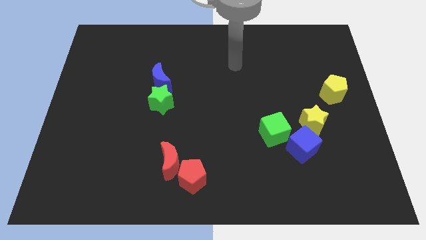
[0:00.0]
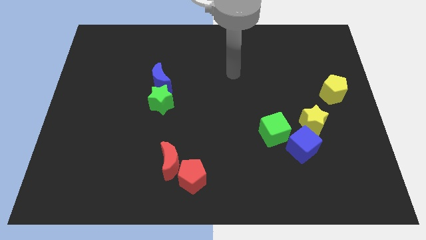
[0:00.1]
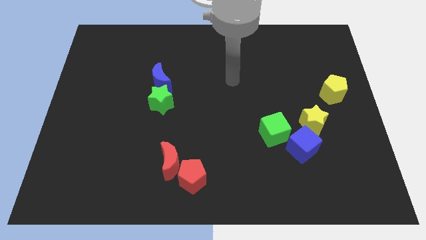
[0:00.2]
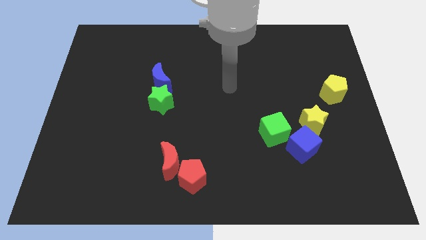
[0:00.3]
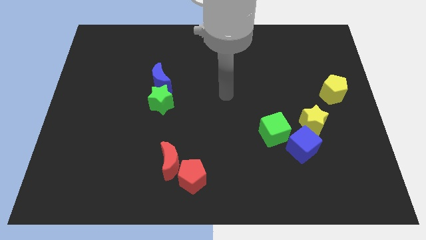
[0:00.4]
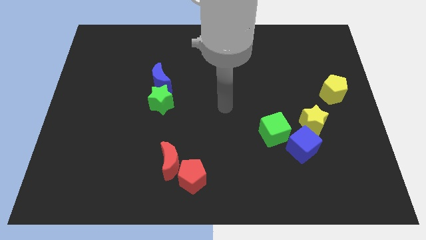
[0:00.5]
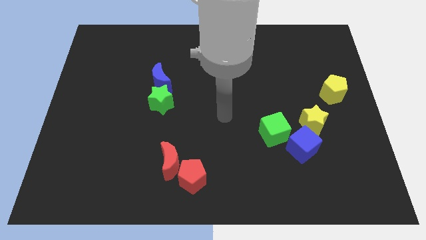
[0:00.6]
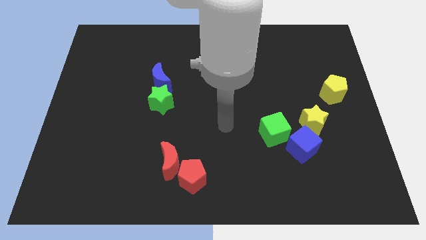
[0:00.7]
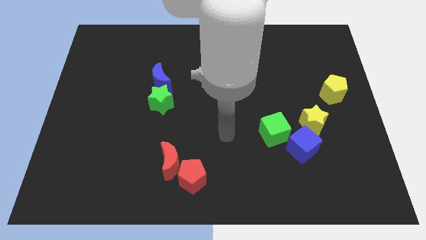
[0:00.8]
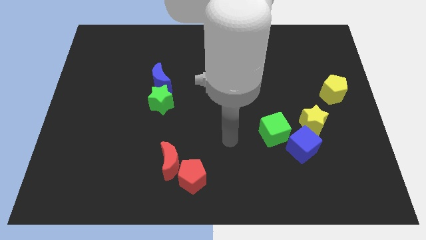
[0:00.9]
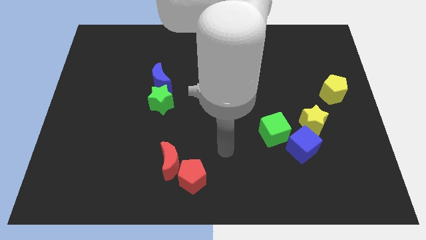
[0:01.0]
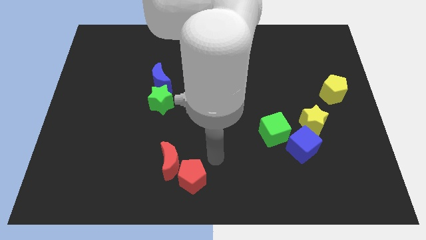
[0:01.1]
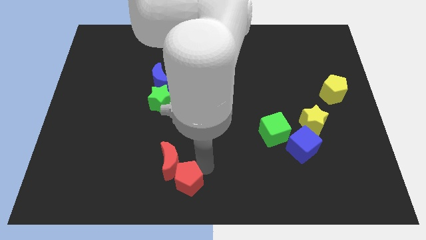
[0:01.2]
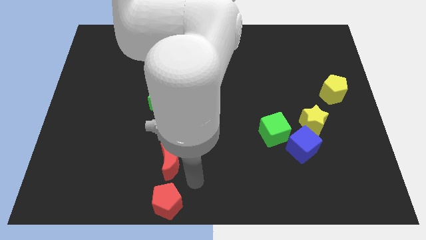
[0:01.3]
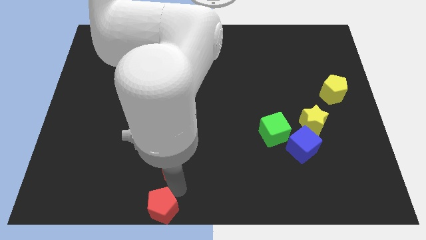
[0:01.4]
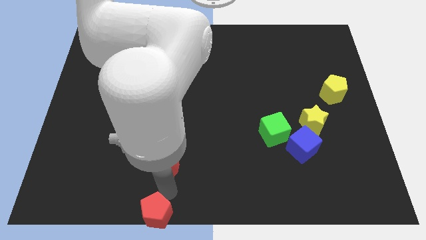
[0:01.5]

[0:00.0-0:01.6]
pull the red moon apart from the red pentagon

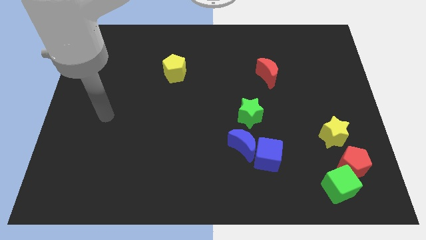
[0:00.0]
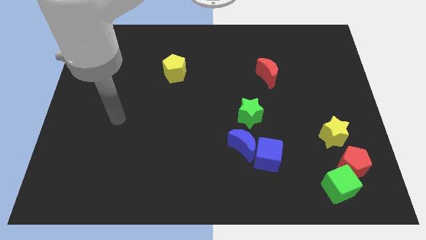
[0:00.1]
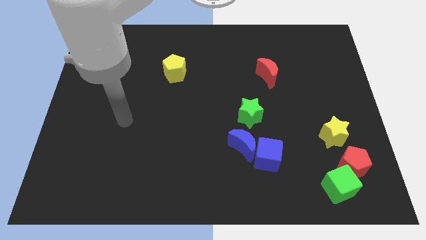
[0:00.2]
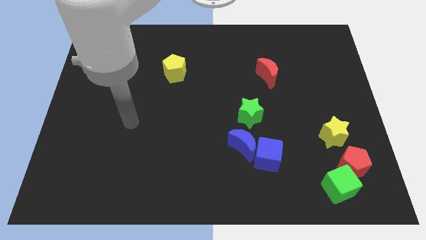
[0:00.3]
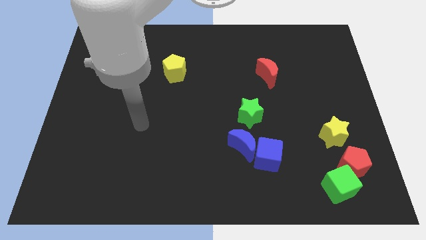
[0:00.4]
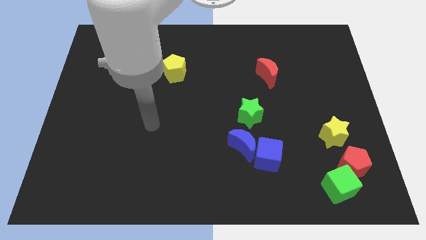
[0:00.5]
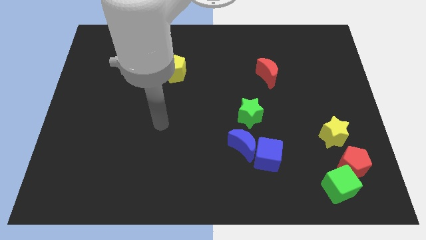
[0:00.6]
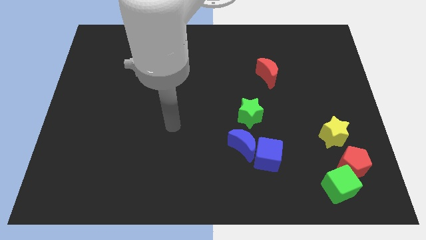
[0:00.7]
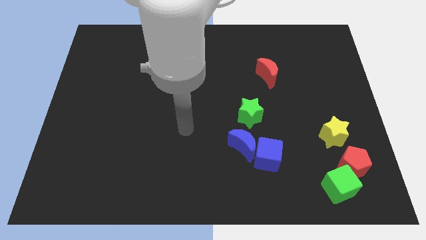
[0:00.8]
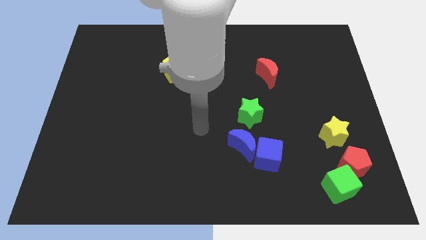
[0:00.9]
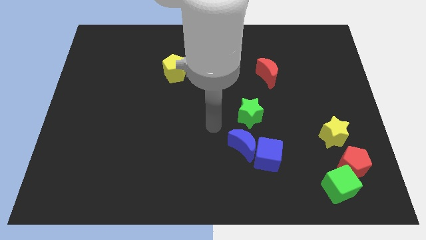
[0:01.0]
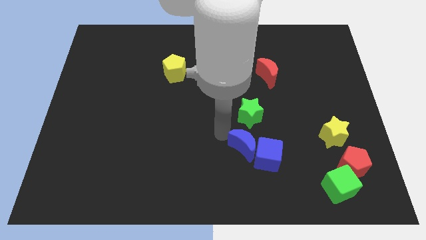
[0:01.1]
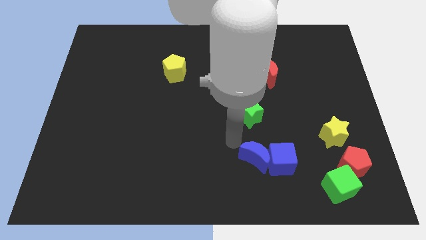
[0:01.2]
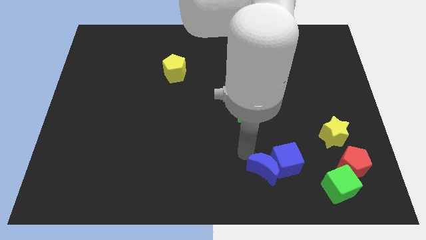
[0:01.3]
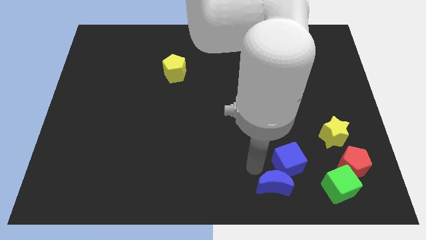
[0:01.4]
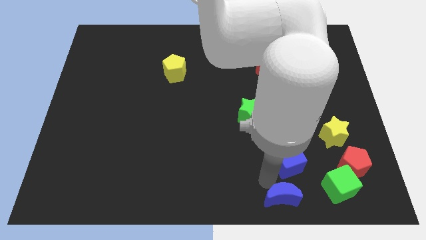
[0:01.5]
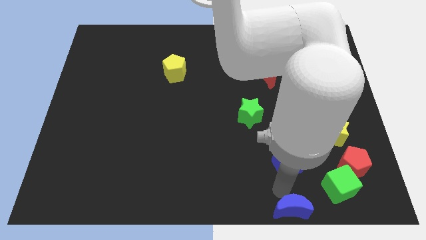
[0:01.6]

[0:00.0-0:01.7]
pull the blue cube apart from the blue moon

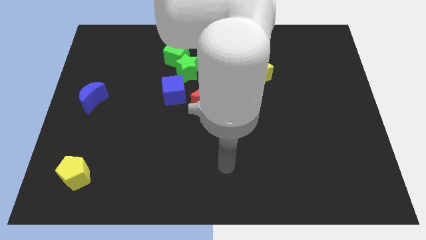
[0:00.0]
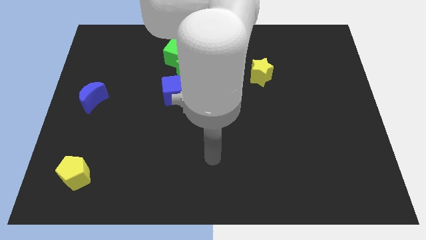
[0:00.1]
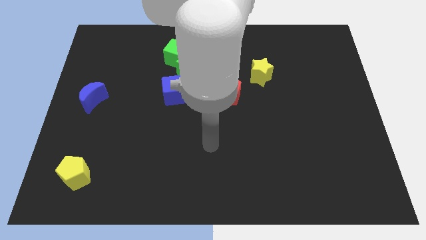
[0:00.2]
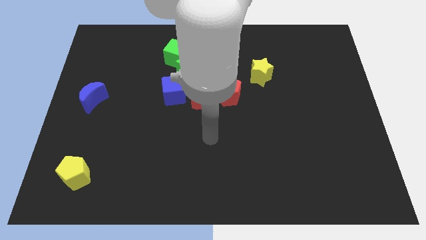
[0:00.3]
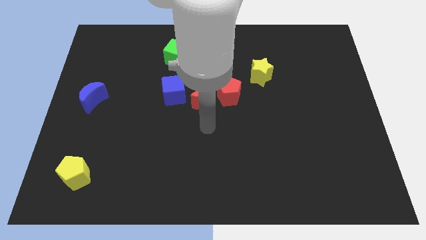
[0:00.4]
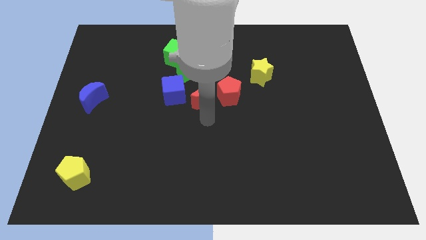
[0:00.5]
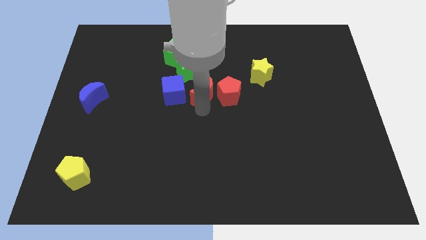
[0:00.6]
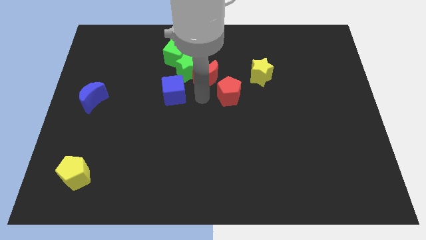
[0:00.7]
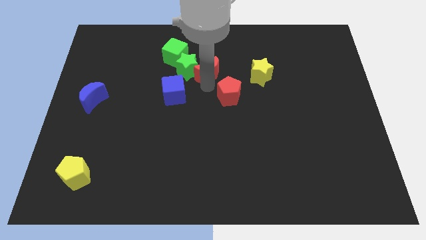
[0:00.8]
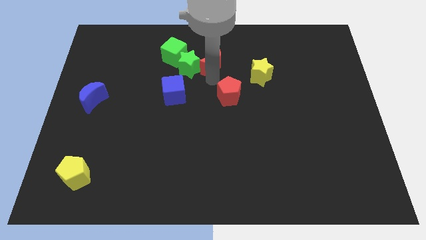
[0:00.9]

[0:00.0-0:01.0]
pull the red pentagon apart from the red moon

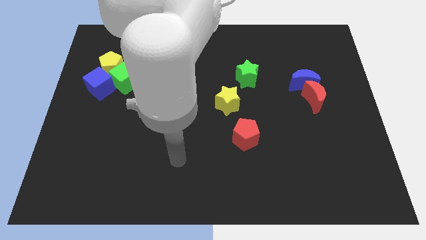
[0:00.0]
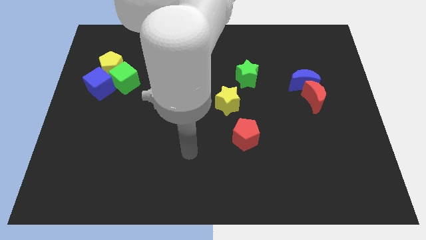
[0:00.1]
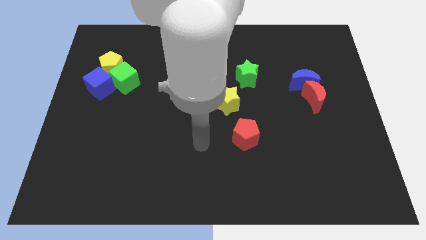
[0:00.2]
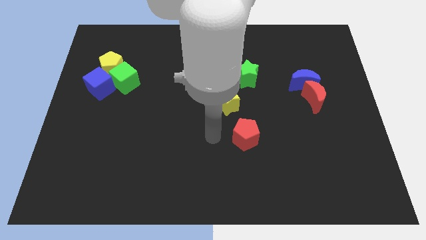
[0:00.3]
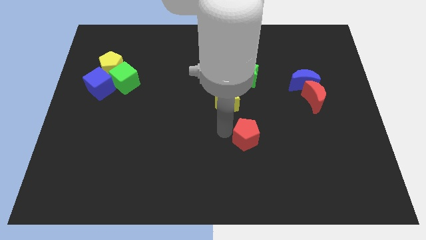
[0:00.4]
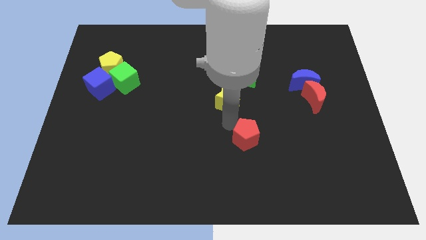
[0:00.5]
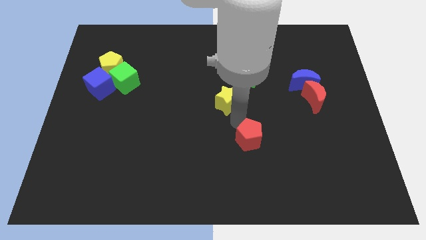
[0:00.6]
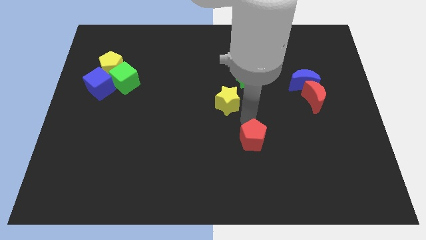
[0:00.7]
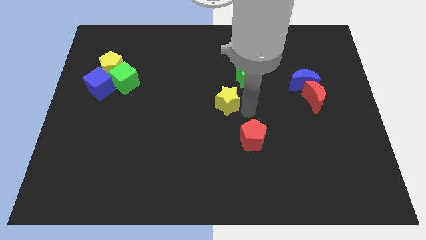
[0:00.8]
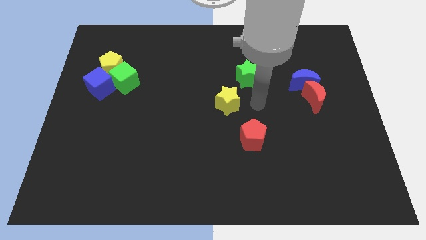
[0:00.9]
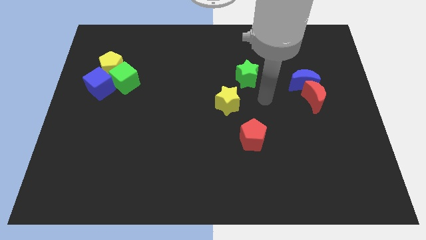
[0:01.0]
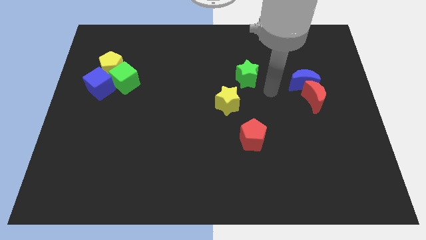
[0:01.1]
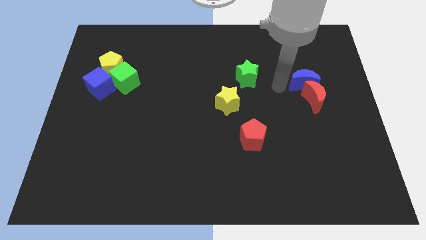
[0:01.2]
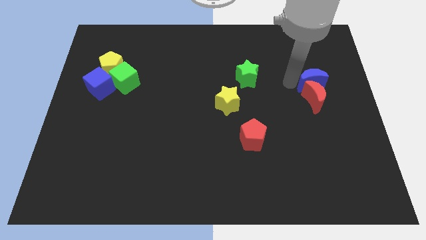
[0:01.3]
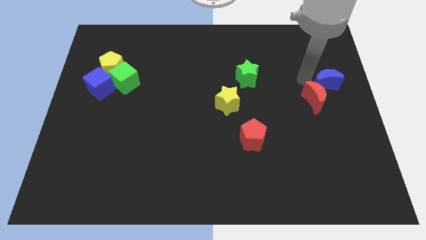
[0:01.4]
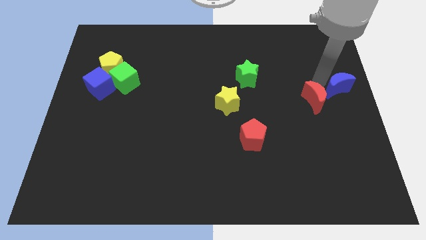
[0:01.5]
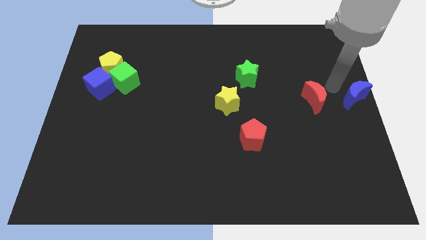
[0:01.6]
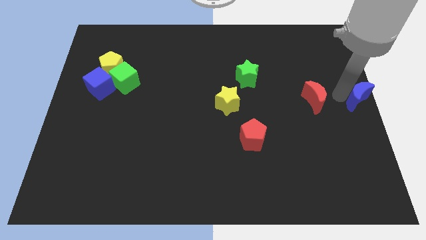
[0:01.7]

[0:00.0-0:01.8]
move the red moon away from the blue moon

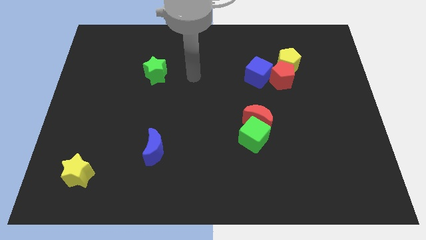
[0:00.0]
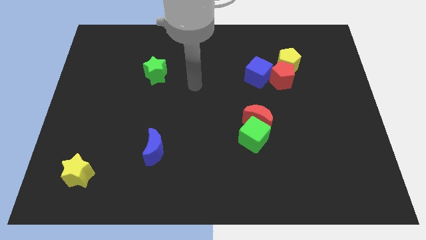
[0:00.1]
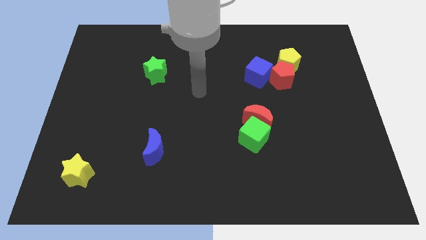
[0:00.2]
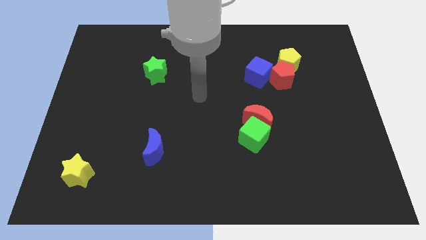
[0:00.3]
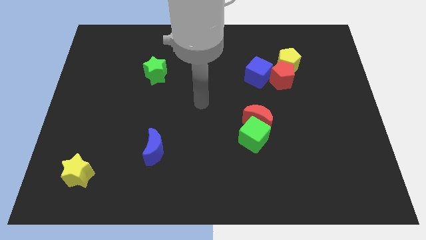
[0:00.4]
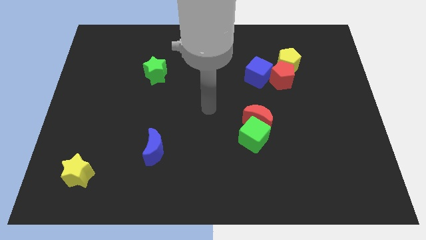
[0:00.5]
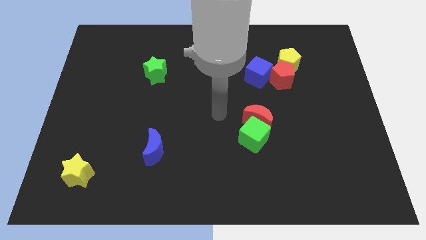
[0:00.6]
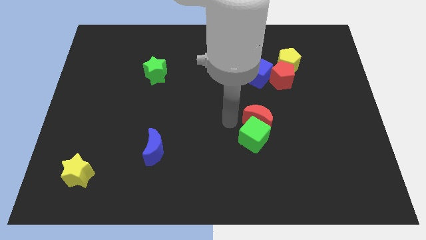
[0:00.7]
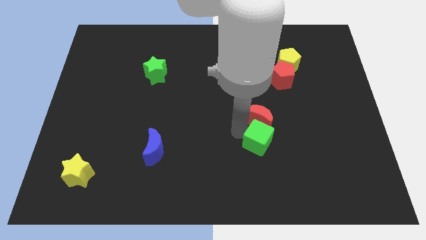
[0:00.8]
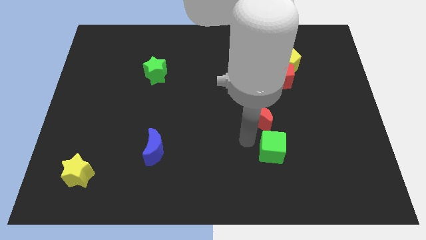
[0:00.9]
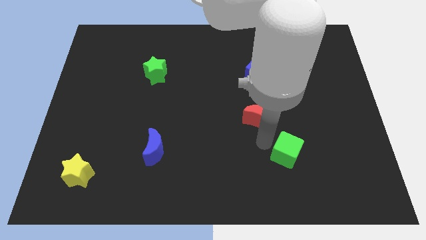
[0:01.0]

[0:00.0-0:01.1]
pull the red moon apart from the green cube

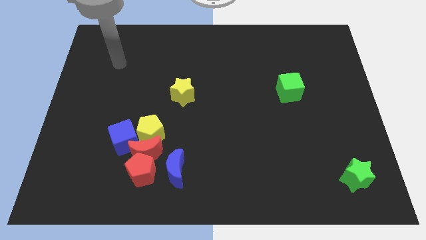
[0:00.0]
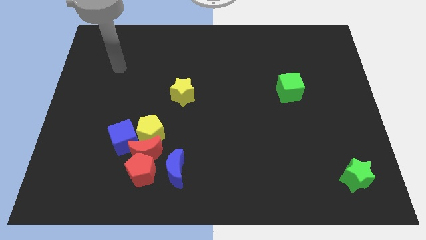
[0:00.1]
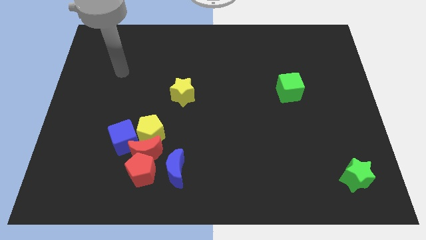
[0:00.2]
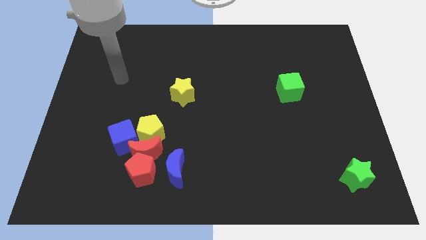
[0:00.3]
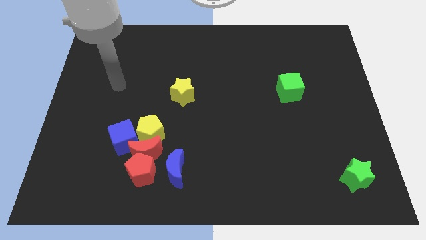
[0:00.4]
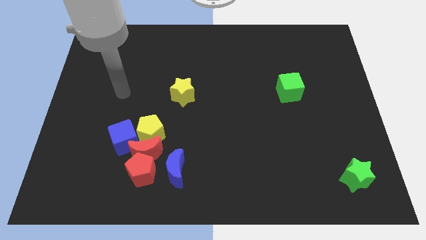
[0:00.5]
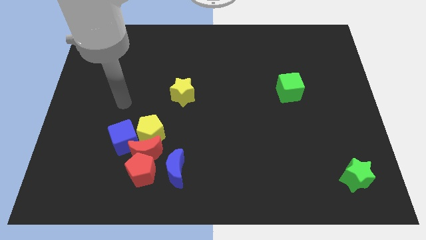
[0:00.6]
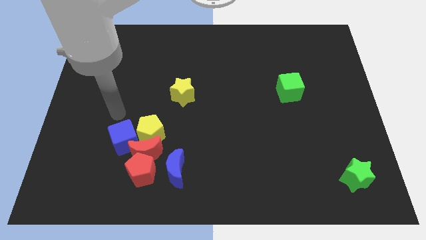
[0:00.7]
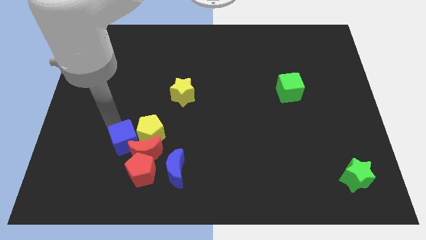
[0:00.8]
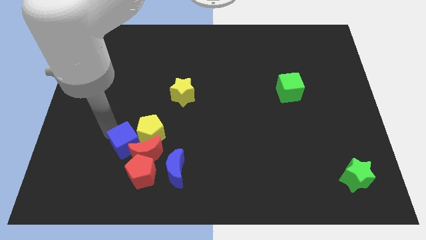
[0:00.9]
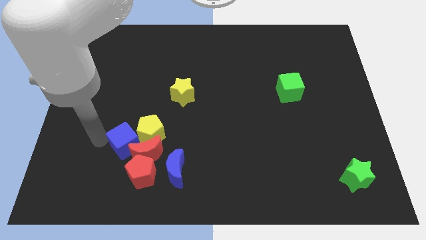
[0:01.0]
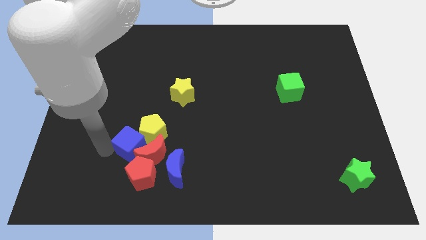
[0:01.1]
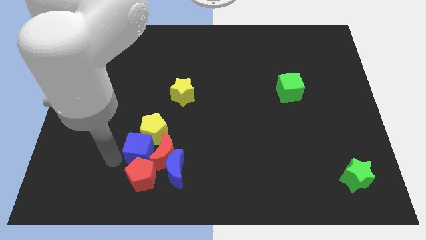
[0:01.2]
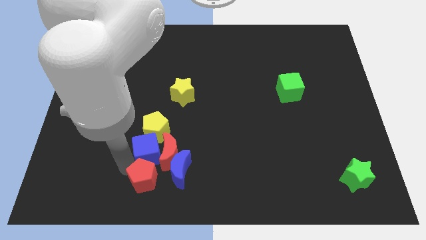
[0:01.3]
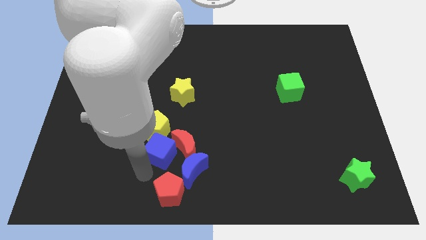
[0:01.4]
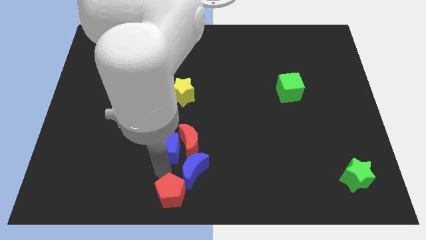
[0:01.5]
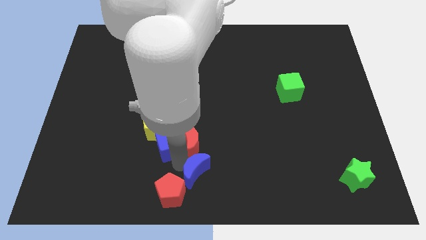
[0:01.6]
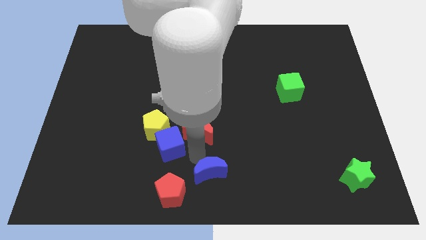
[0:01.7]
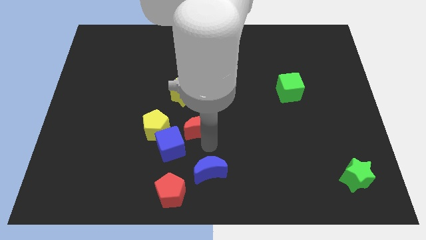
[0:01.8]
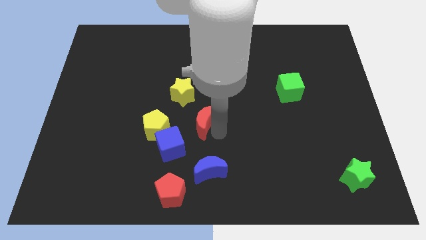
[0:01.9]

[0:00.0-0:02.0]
move the red moon away from the clump

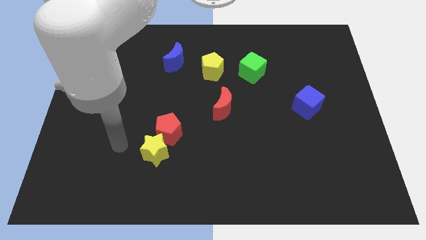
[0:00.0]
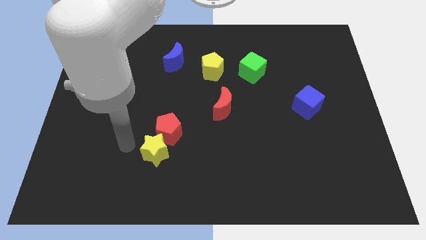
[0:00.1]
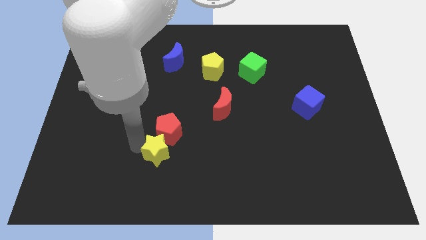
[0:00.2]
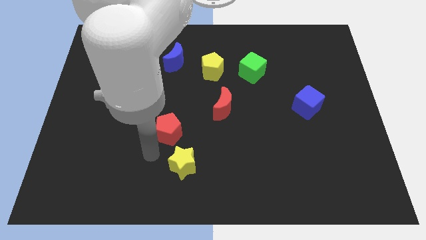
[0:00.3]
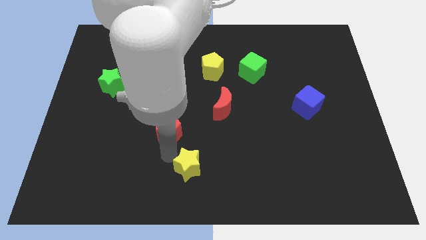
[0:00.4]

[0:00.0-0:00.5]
separate the red pentagon from the yellow star
